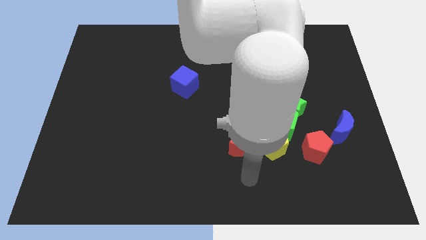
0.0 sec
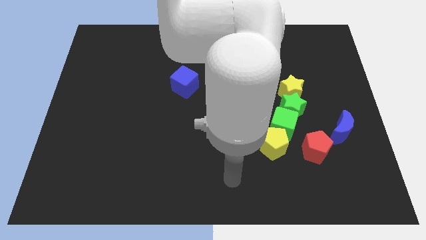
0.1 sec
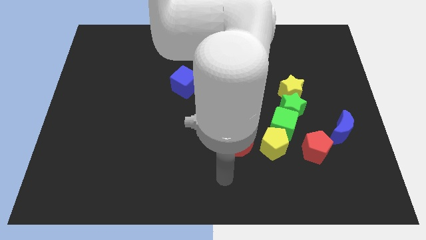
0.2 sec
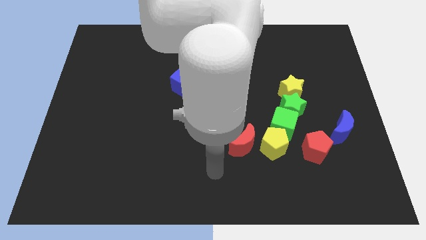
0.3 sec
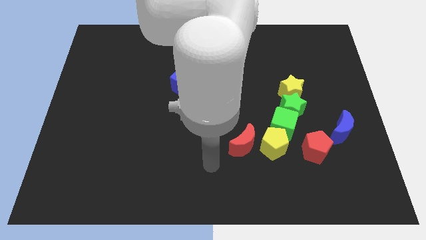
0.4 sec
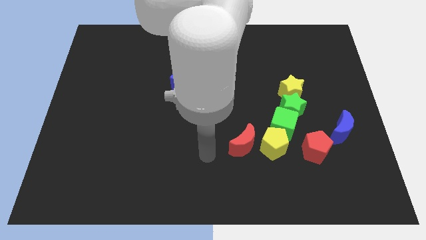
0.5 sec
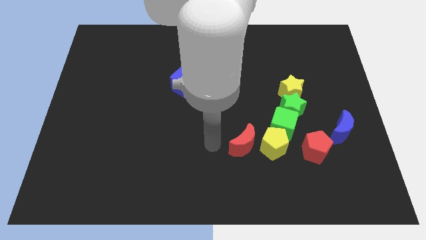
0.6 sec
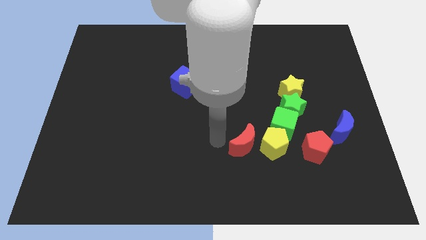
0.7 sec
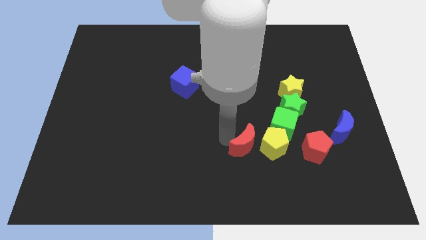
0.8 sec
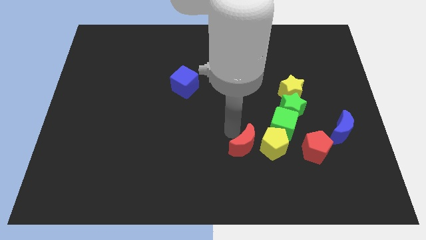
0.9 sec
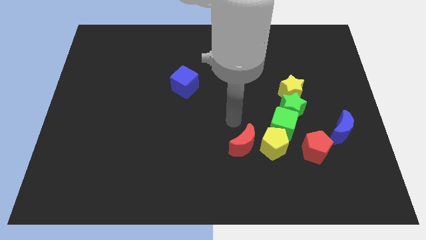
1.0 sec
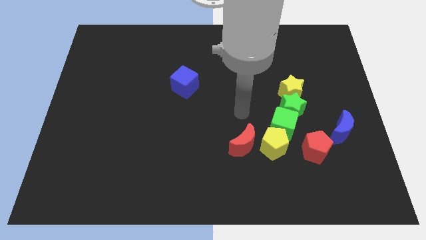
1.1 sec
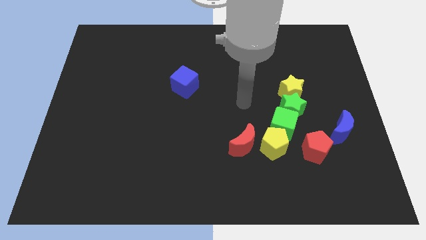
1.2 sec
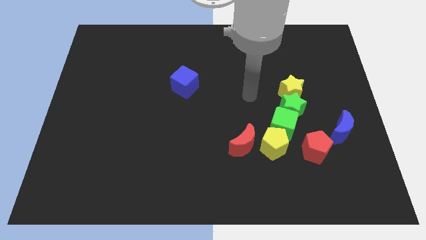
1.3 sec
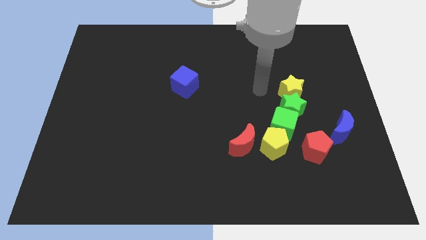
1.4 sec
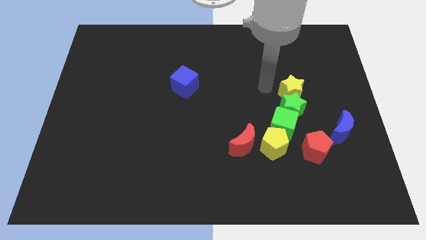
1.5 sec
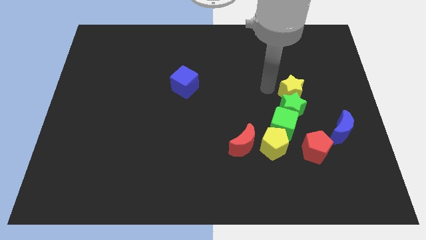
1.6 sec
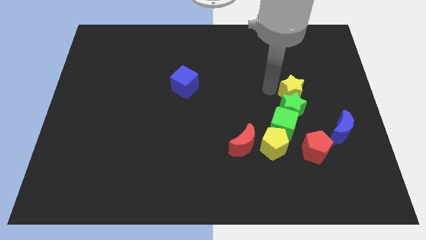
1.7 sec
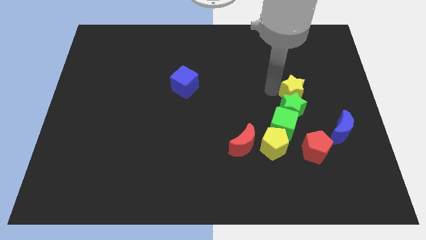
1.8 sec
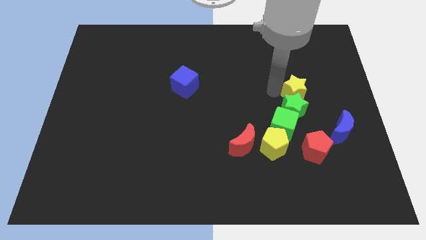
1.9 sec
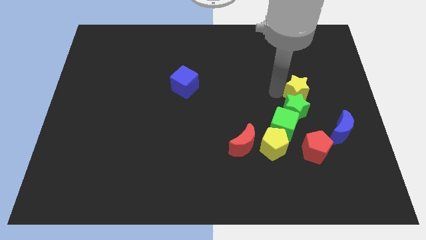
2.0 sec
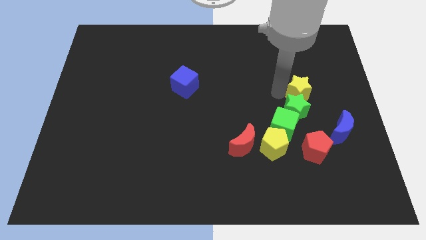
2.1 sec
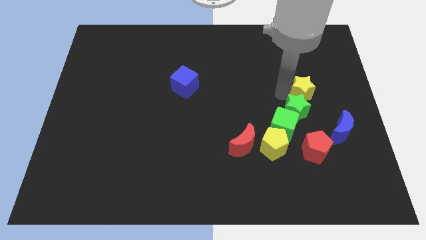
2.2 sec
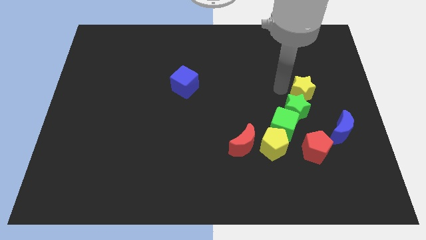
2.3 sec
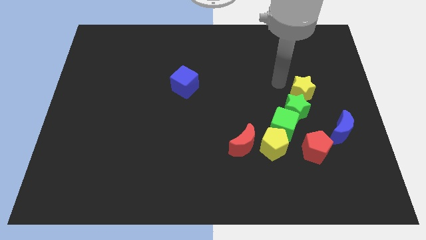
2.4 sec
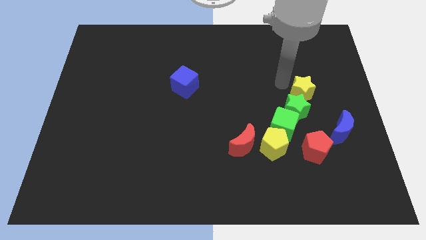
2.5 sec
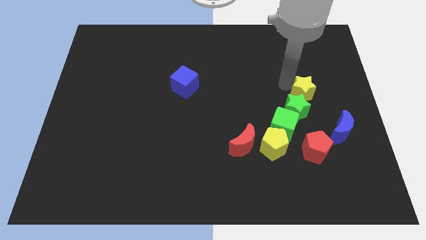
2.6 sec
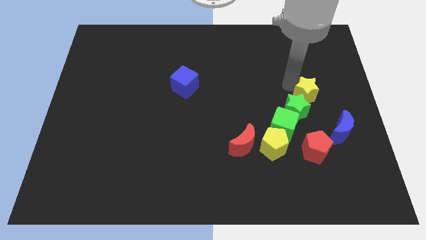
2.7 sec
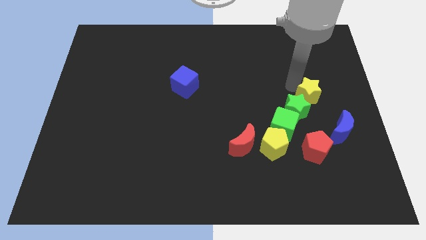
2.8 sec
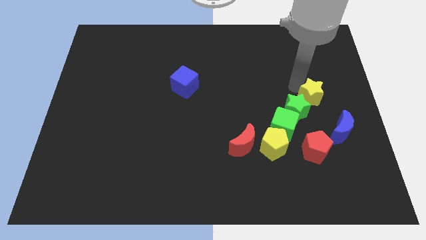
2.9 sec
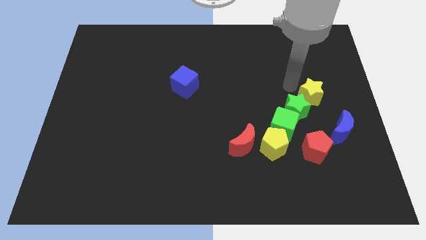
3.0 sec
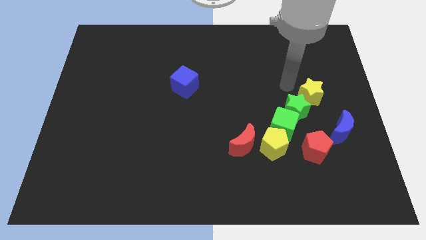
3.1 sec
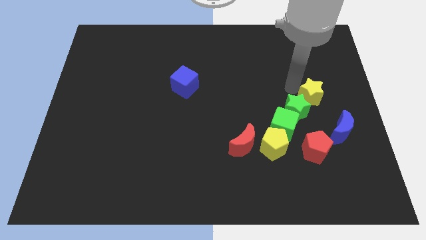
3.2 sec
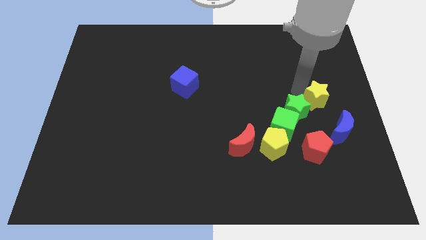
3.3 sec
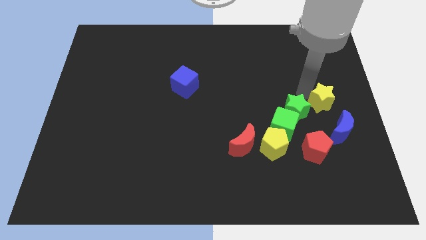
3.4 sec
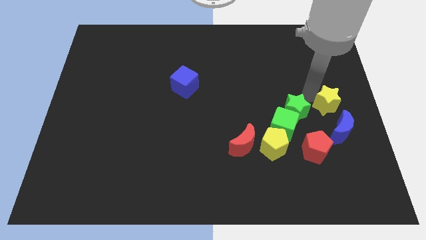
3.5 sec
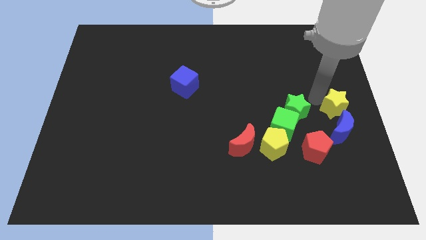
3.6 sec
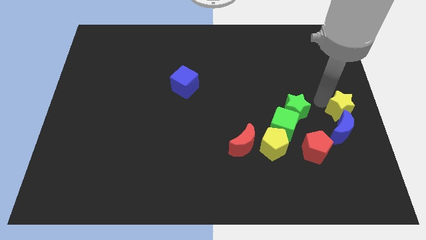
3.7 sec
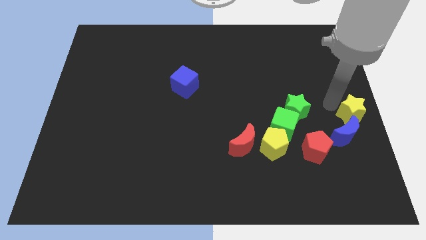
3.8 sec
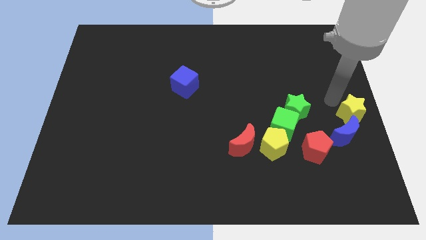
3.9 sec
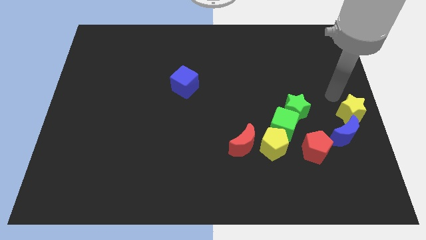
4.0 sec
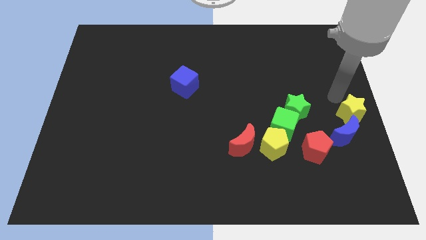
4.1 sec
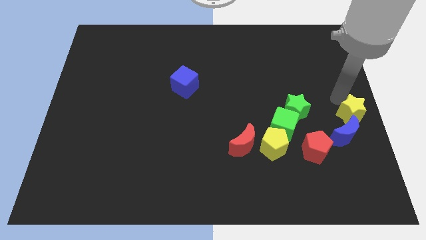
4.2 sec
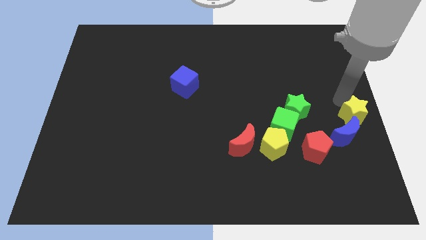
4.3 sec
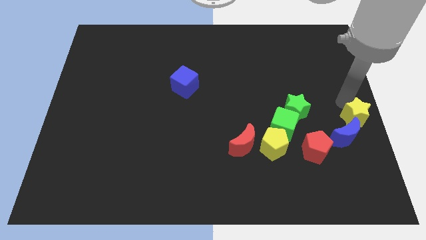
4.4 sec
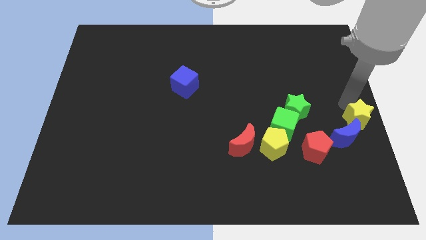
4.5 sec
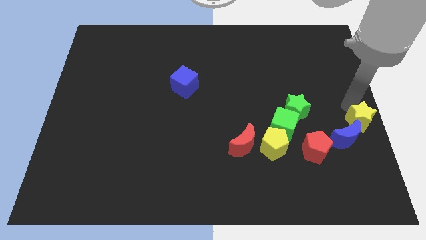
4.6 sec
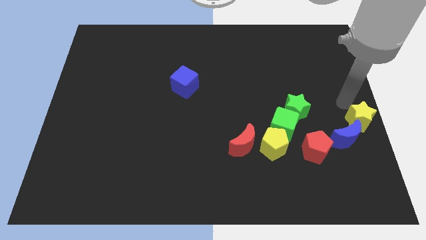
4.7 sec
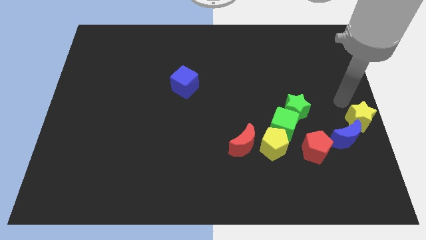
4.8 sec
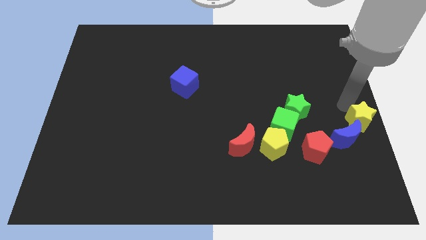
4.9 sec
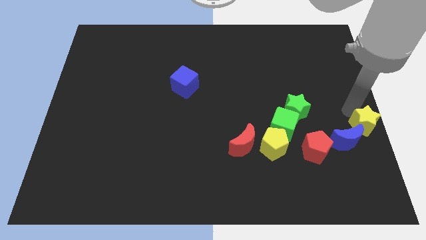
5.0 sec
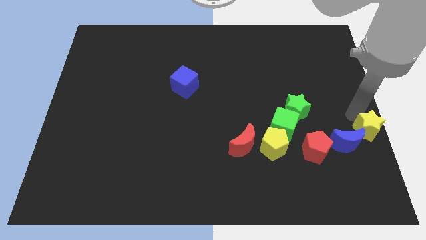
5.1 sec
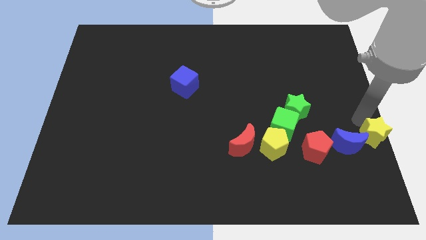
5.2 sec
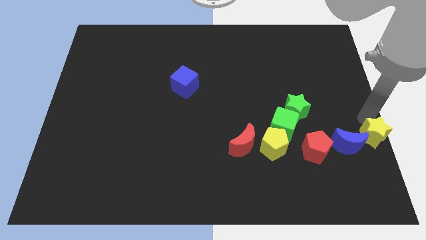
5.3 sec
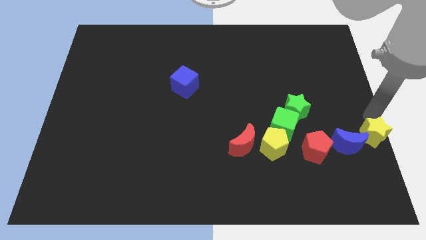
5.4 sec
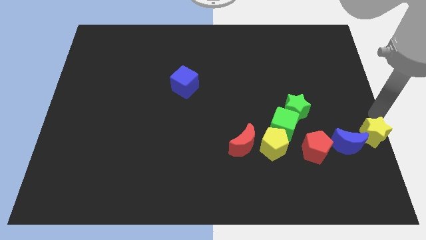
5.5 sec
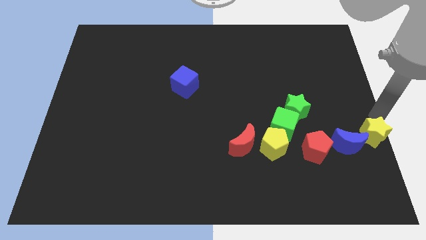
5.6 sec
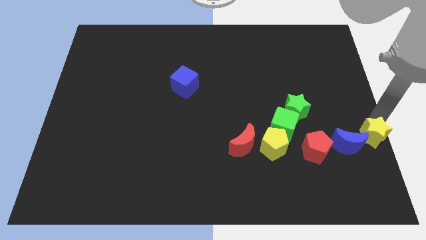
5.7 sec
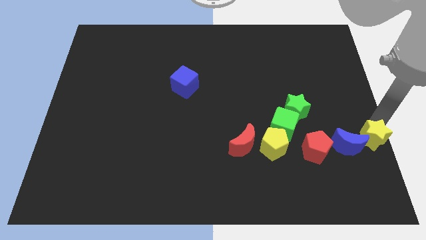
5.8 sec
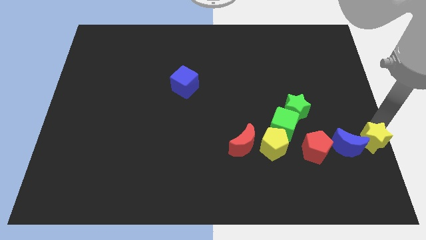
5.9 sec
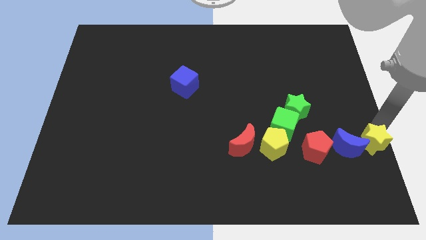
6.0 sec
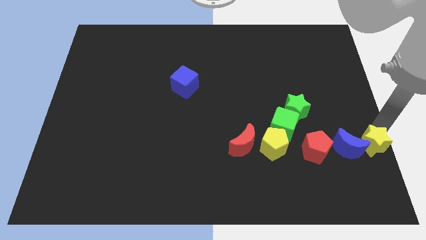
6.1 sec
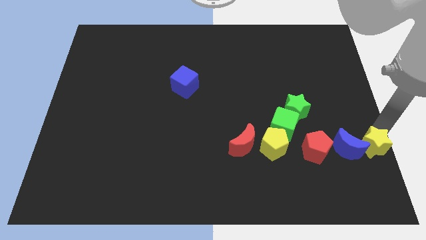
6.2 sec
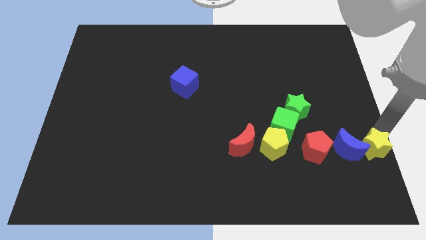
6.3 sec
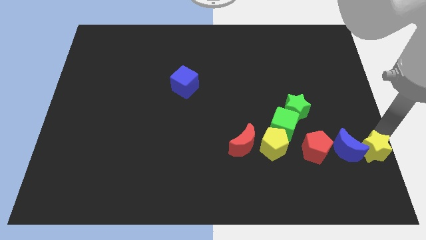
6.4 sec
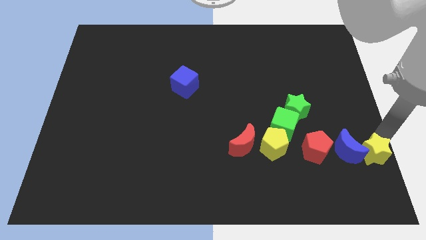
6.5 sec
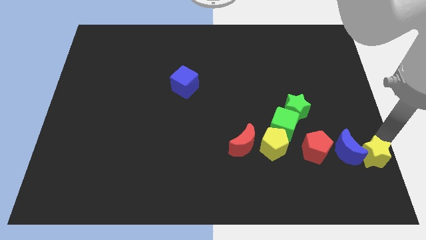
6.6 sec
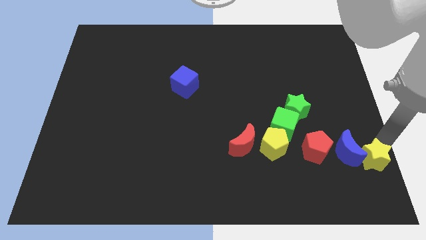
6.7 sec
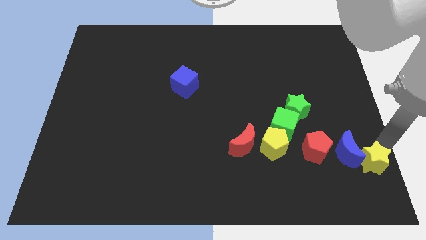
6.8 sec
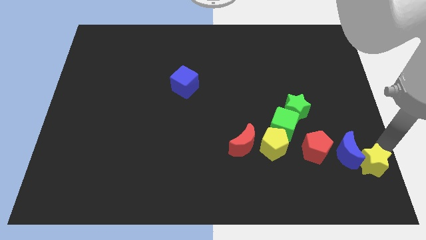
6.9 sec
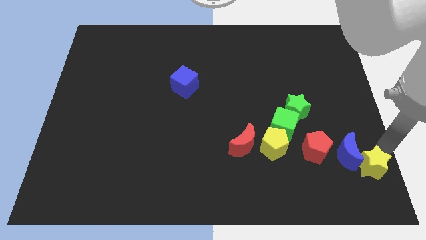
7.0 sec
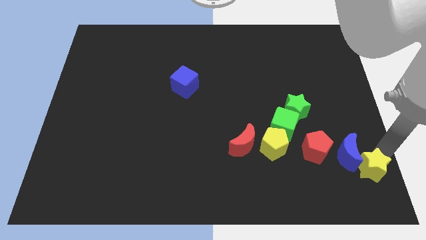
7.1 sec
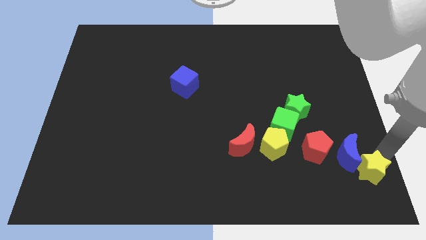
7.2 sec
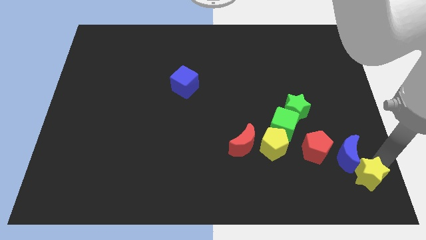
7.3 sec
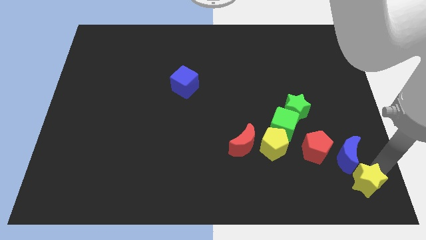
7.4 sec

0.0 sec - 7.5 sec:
move the yellow star downwards somewhat

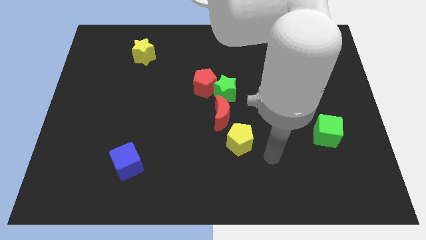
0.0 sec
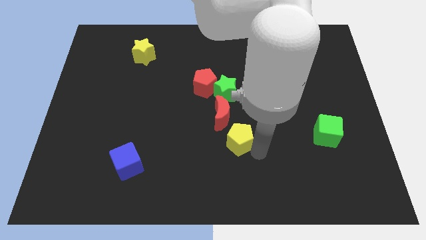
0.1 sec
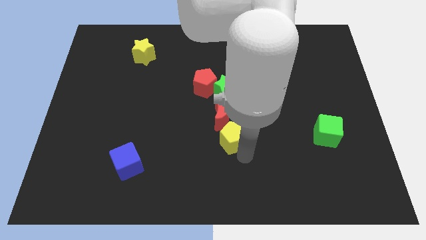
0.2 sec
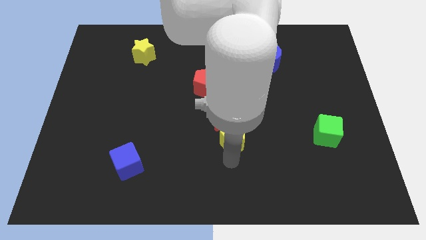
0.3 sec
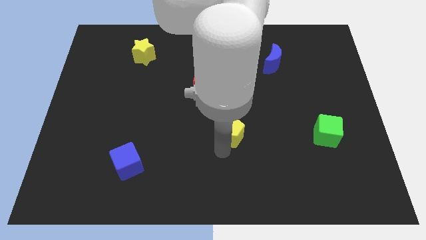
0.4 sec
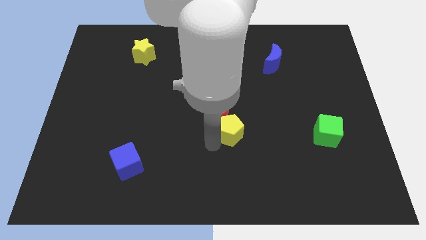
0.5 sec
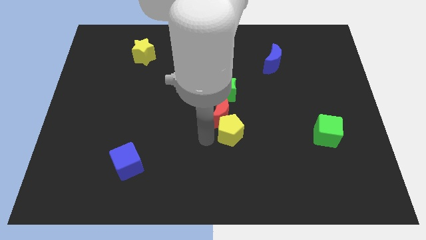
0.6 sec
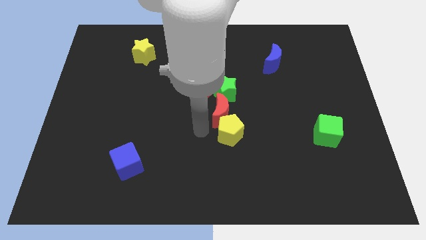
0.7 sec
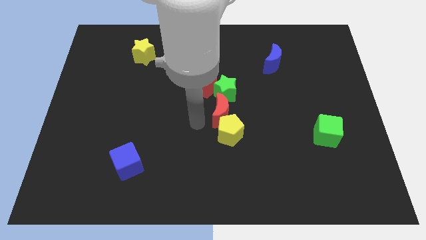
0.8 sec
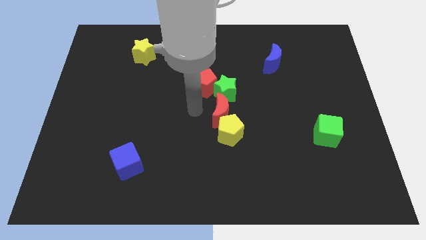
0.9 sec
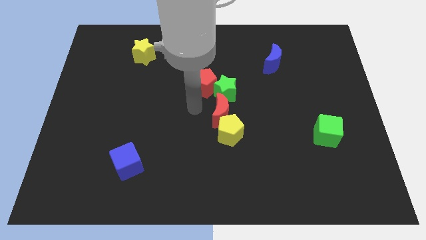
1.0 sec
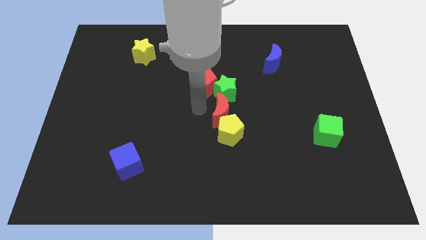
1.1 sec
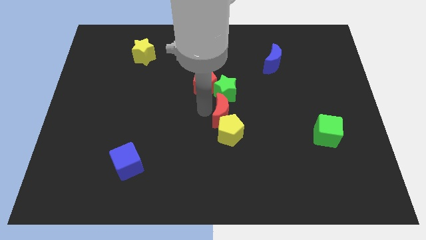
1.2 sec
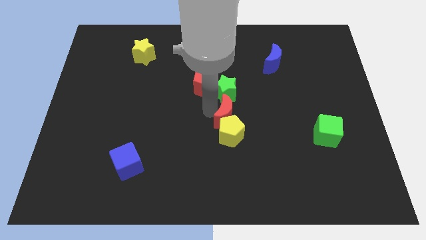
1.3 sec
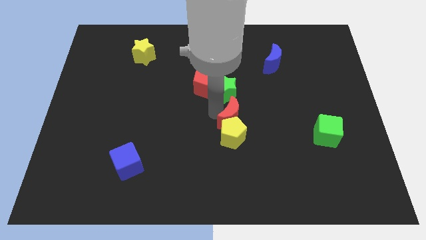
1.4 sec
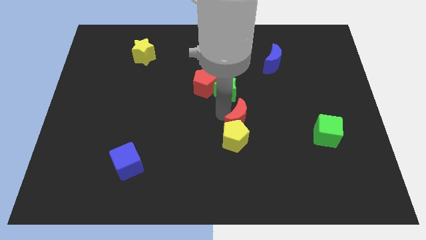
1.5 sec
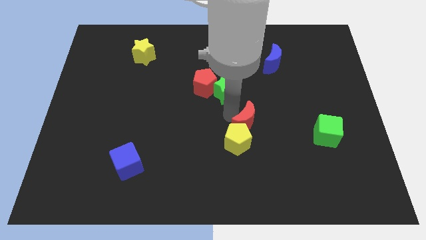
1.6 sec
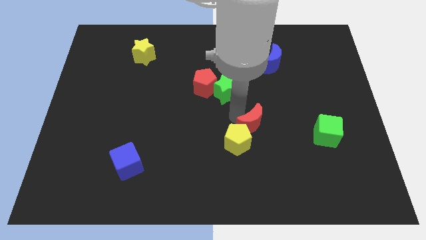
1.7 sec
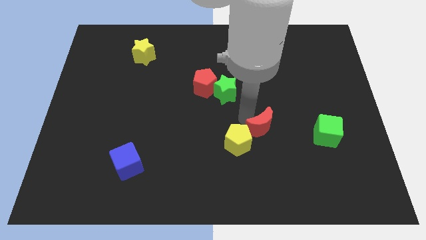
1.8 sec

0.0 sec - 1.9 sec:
slide the red moon slightly diagonally downwards and right
